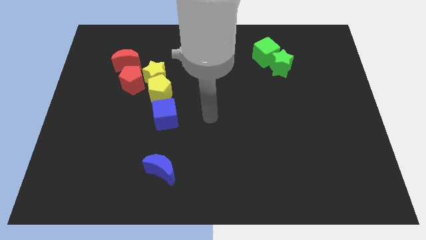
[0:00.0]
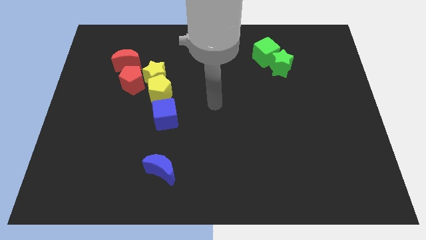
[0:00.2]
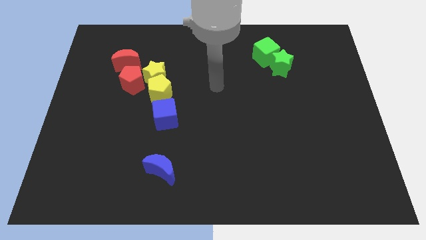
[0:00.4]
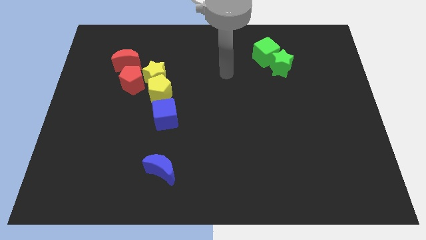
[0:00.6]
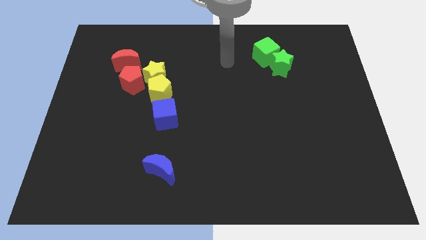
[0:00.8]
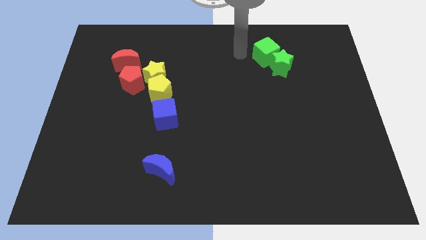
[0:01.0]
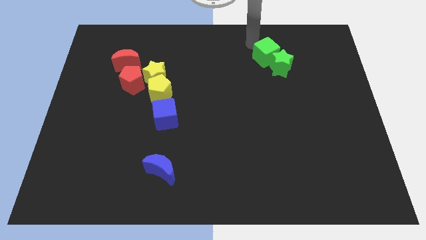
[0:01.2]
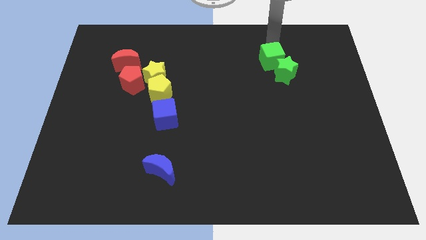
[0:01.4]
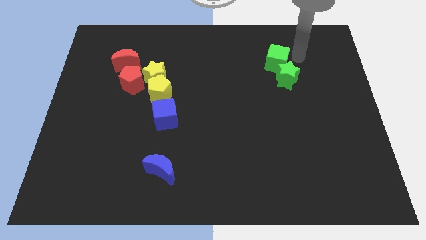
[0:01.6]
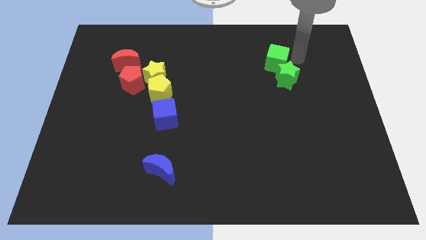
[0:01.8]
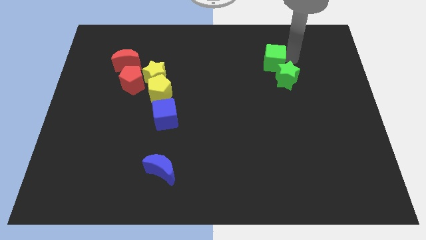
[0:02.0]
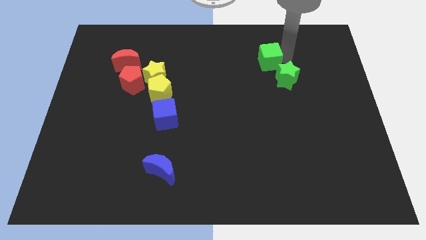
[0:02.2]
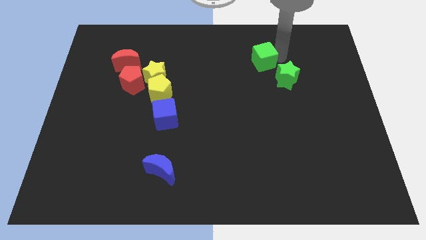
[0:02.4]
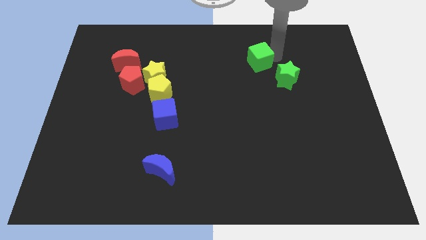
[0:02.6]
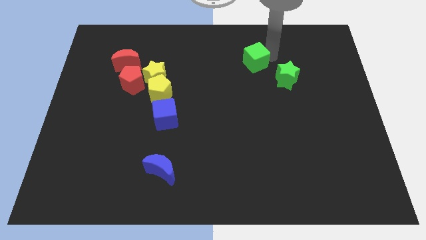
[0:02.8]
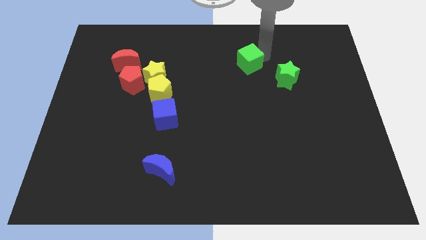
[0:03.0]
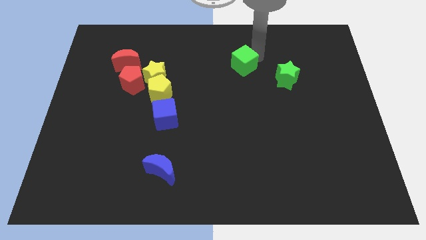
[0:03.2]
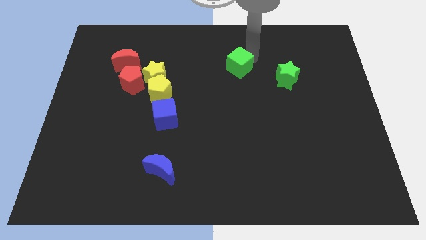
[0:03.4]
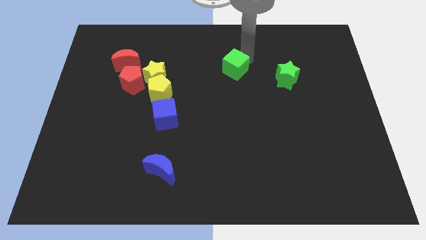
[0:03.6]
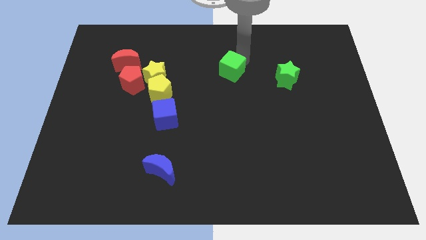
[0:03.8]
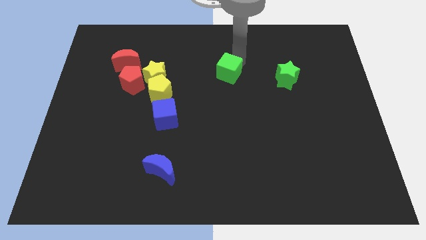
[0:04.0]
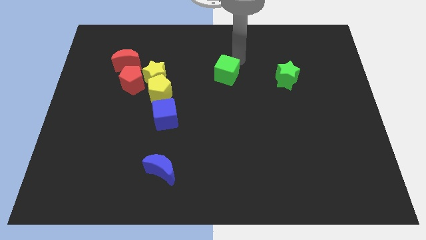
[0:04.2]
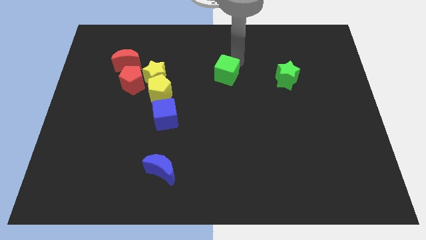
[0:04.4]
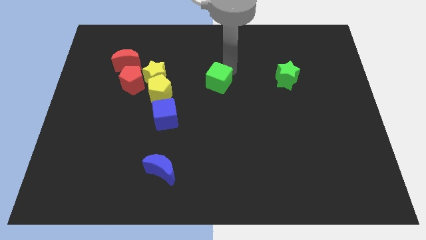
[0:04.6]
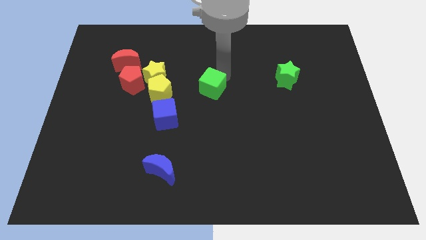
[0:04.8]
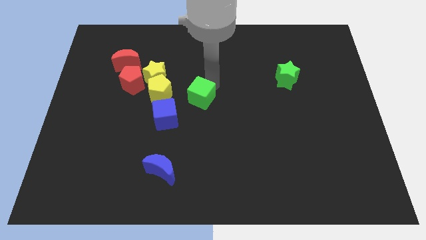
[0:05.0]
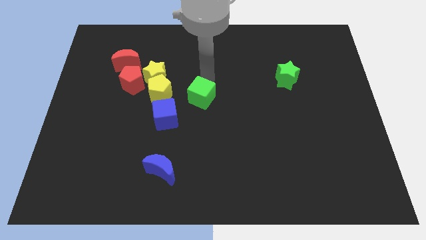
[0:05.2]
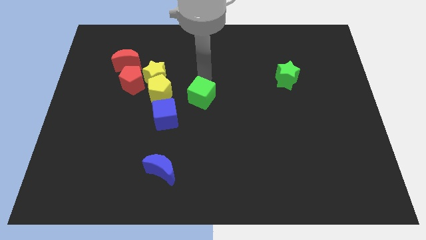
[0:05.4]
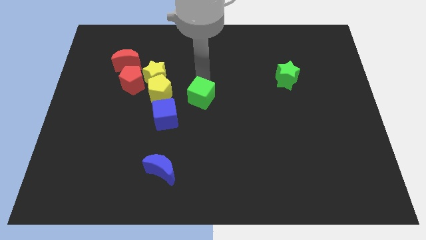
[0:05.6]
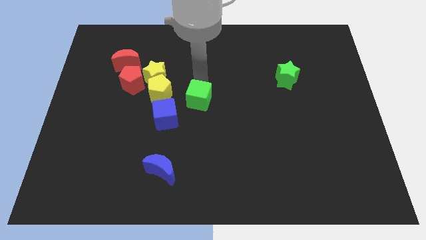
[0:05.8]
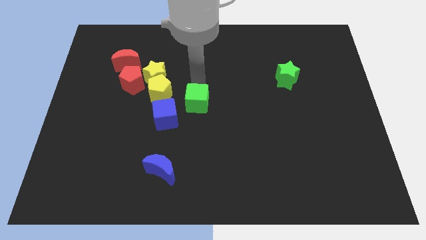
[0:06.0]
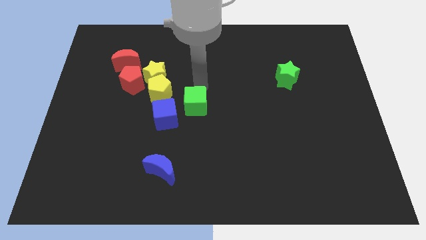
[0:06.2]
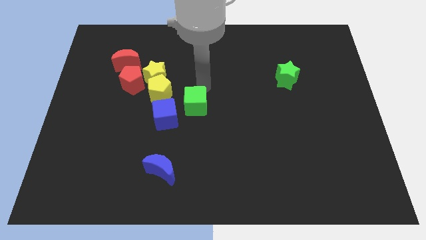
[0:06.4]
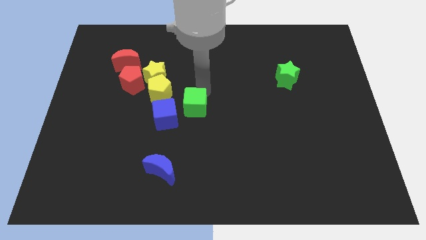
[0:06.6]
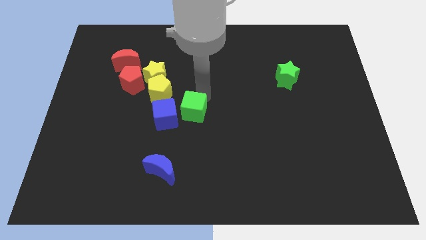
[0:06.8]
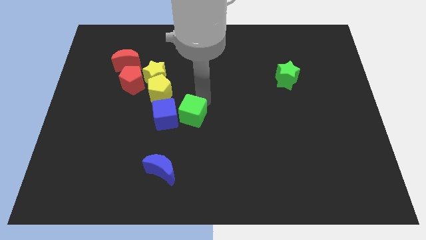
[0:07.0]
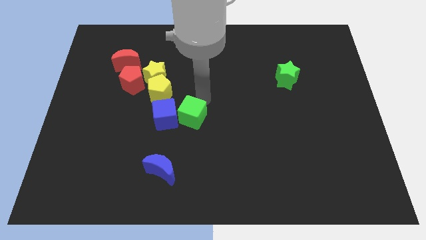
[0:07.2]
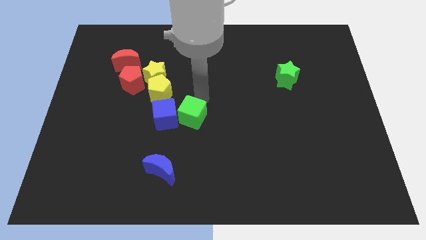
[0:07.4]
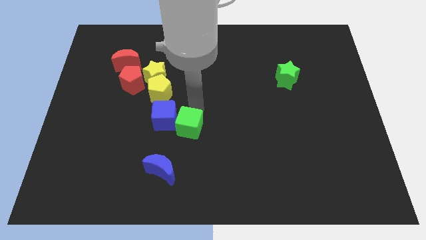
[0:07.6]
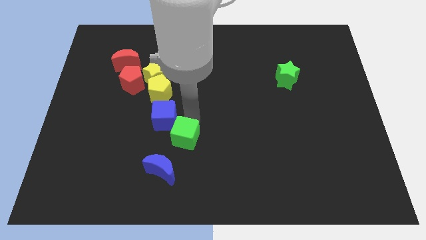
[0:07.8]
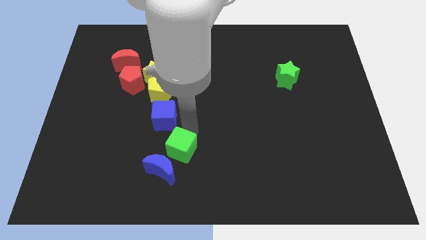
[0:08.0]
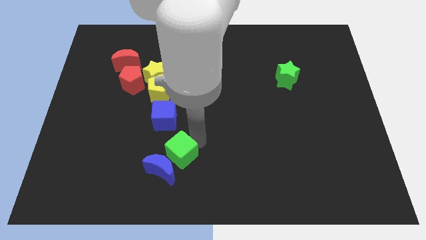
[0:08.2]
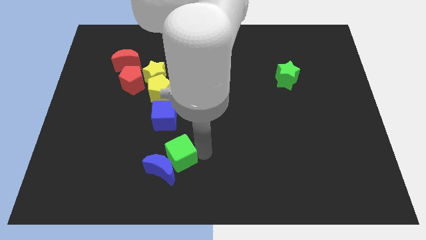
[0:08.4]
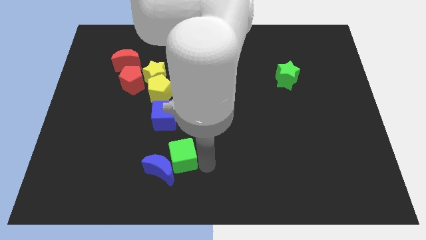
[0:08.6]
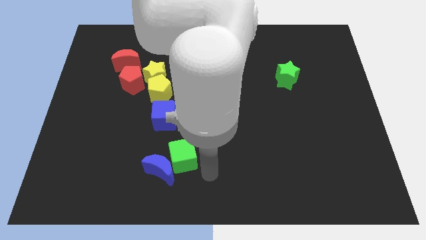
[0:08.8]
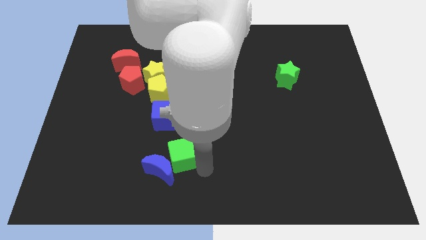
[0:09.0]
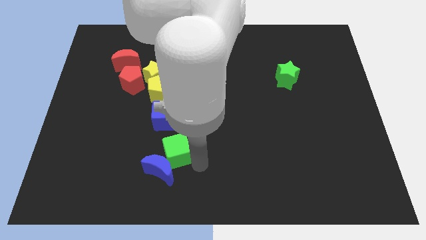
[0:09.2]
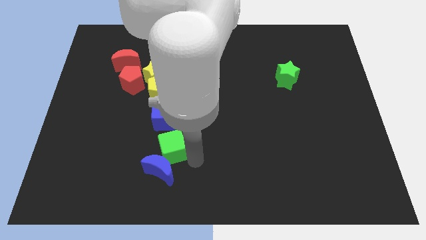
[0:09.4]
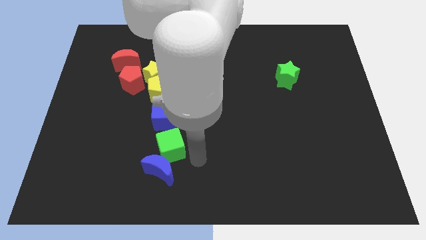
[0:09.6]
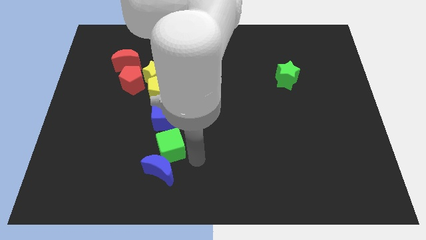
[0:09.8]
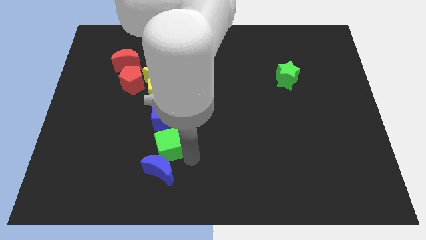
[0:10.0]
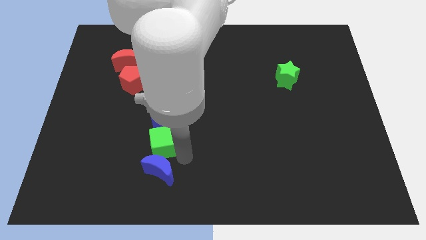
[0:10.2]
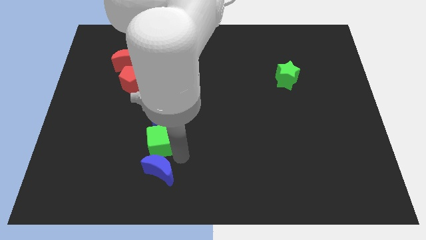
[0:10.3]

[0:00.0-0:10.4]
put the green cube to the bottom left of the blue cube
